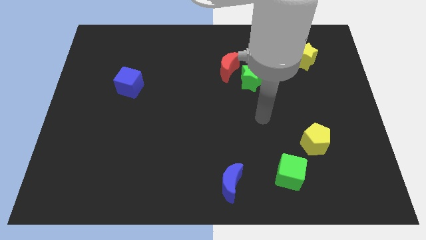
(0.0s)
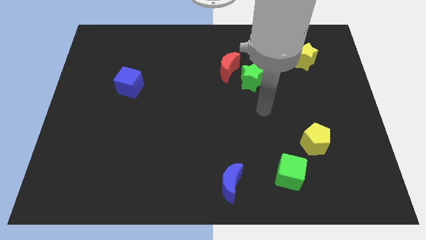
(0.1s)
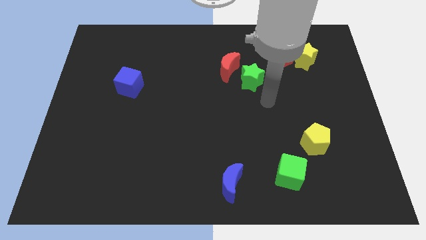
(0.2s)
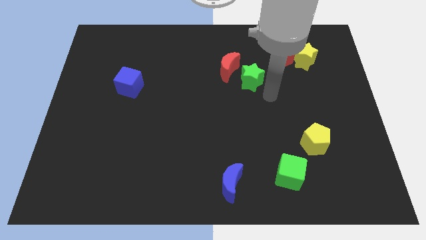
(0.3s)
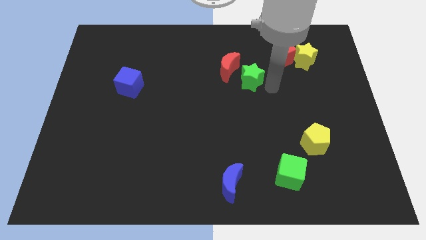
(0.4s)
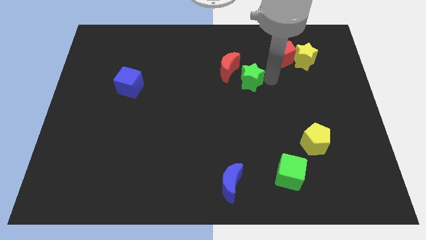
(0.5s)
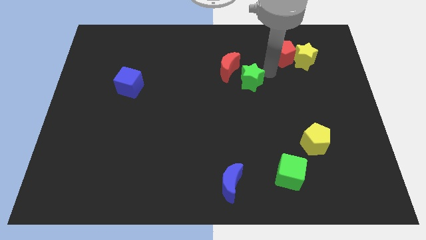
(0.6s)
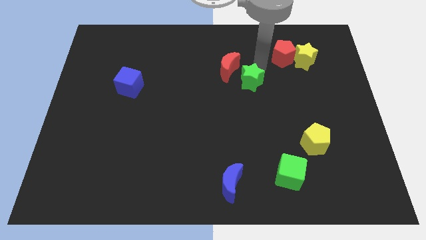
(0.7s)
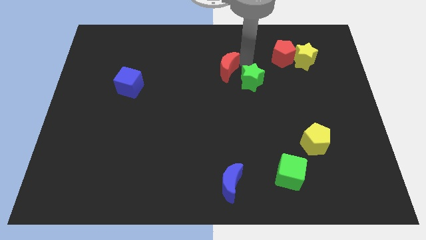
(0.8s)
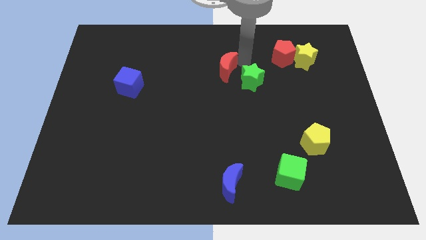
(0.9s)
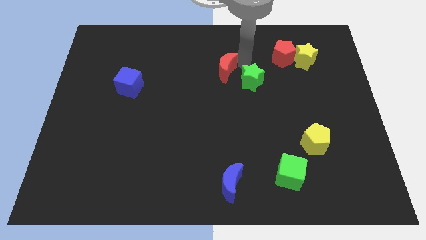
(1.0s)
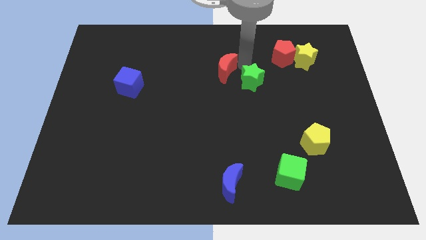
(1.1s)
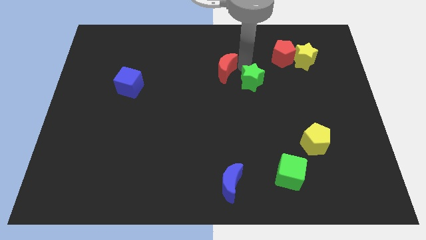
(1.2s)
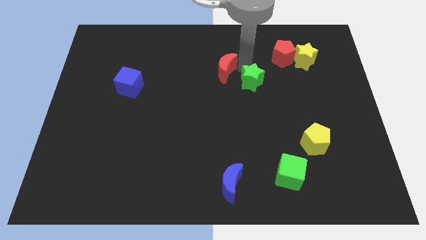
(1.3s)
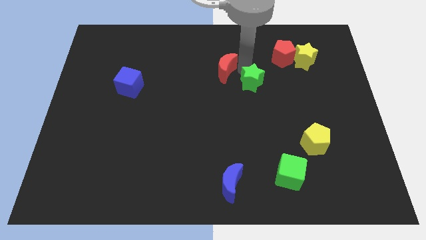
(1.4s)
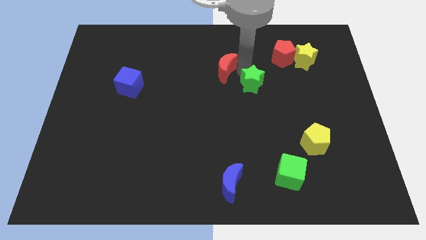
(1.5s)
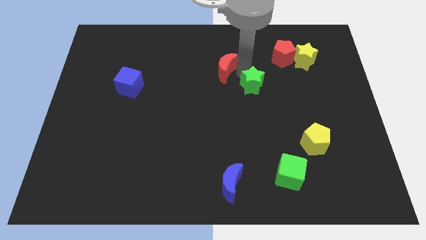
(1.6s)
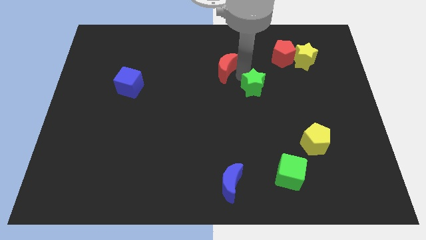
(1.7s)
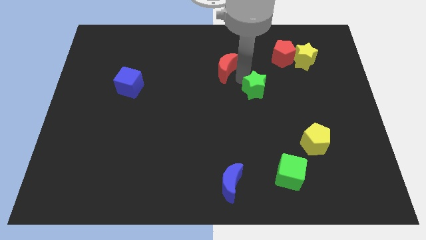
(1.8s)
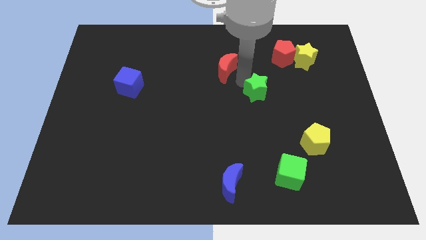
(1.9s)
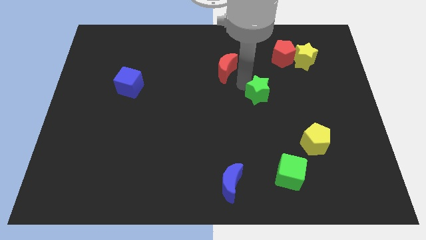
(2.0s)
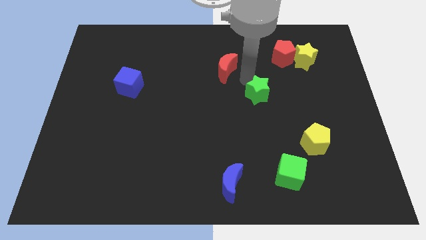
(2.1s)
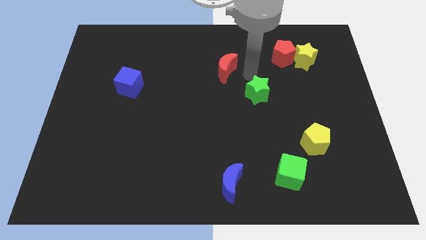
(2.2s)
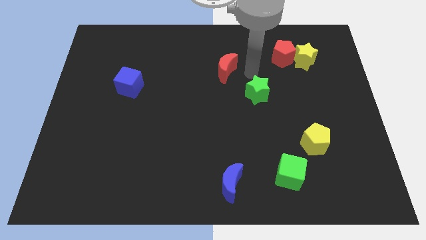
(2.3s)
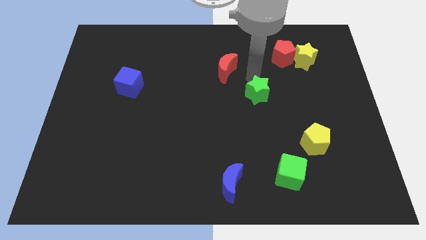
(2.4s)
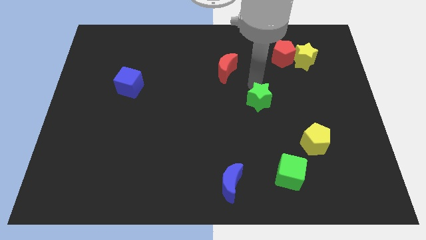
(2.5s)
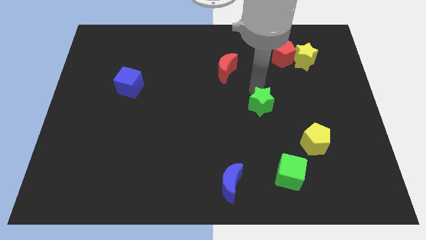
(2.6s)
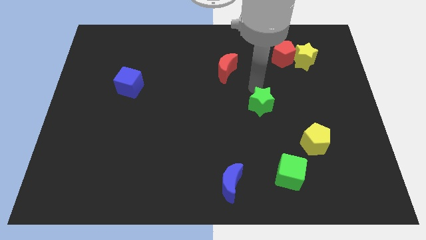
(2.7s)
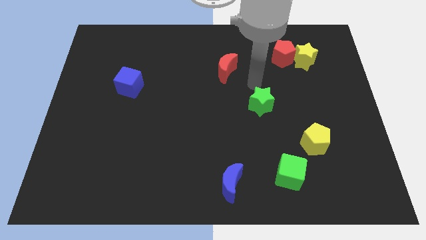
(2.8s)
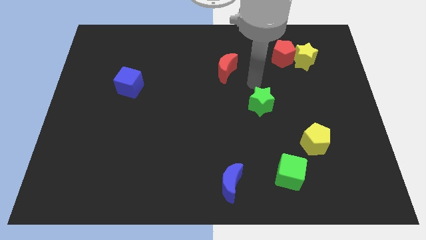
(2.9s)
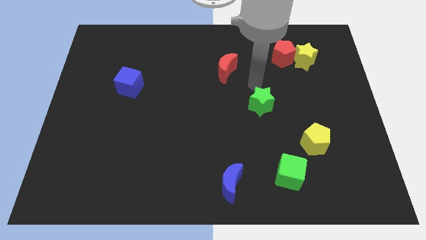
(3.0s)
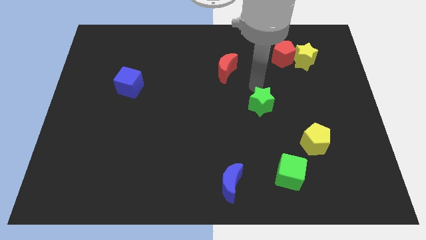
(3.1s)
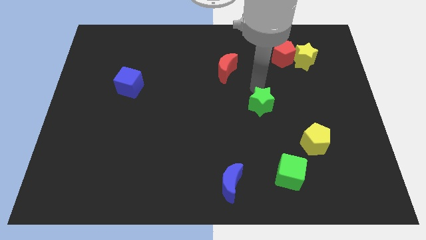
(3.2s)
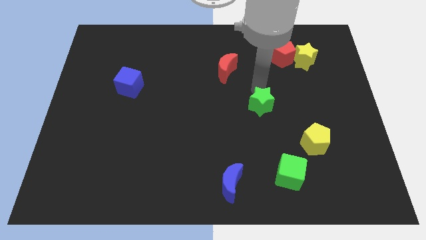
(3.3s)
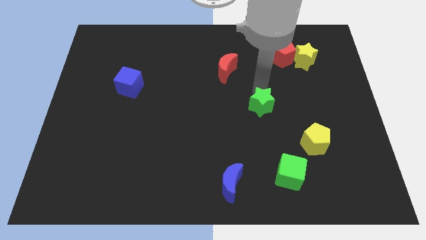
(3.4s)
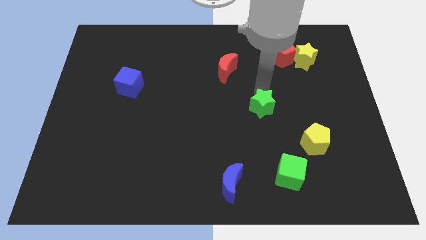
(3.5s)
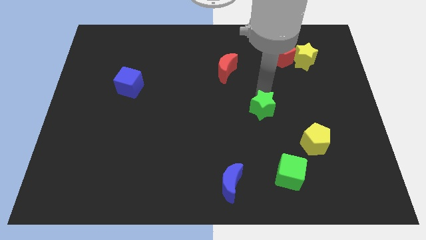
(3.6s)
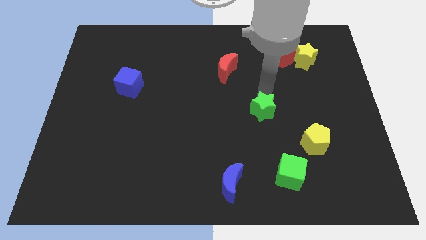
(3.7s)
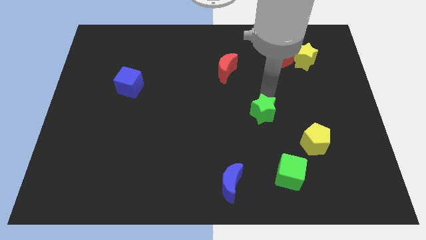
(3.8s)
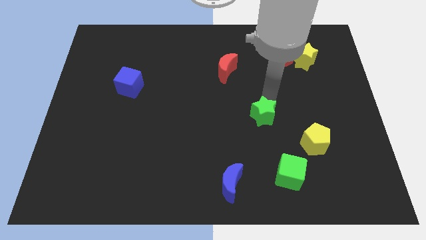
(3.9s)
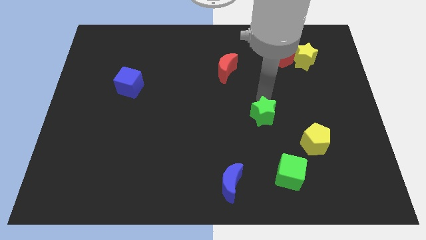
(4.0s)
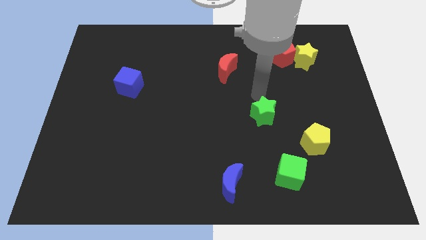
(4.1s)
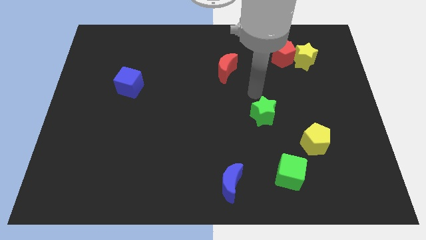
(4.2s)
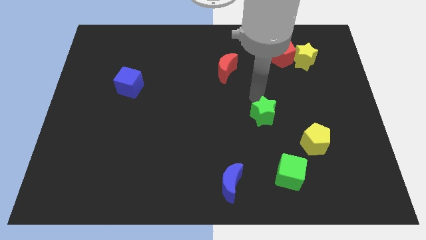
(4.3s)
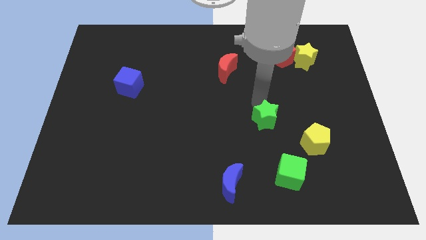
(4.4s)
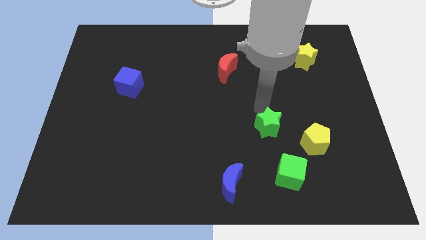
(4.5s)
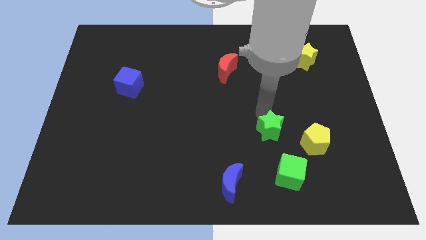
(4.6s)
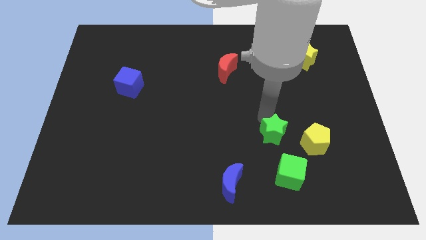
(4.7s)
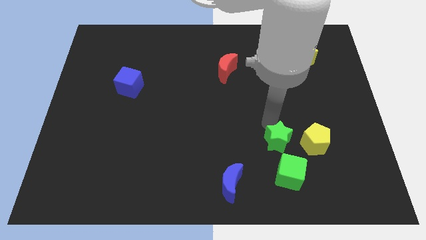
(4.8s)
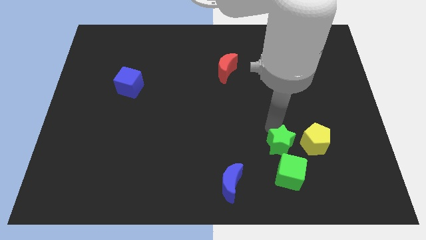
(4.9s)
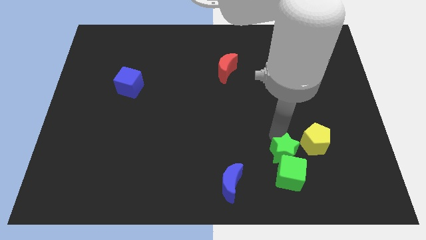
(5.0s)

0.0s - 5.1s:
move the green star towards the green cube

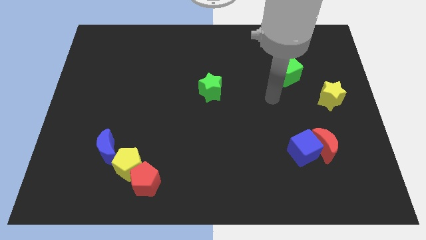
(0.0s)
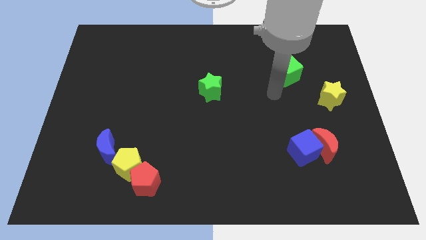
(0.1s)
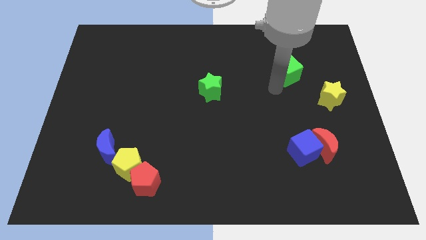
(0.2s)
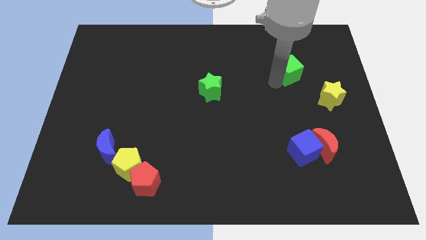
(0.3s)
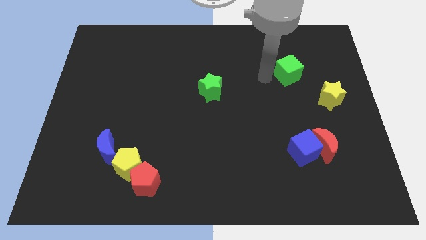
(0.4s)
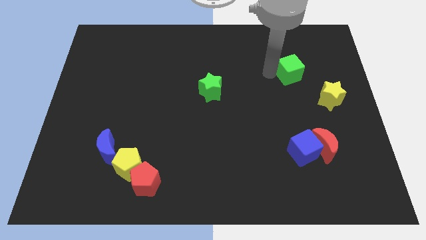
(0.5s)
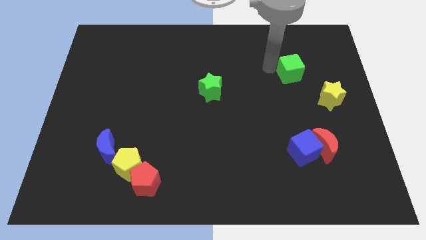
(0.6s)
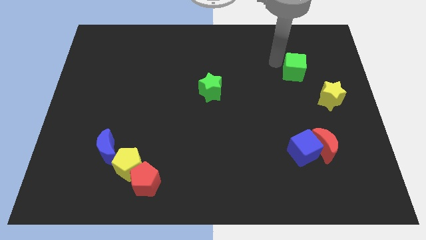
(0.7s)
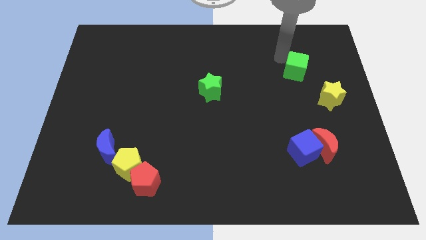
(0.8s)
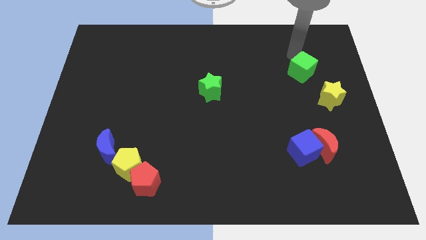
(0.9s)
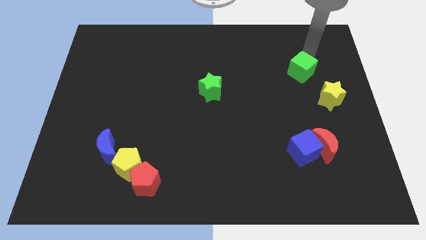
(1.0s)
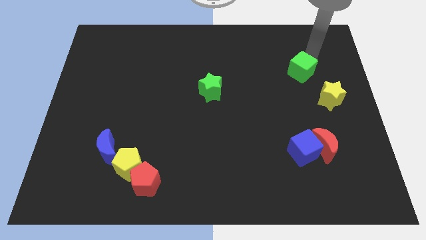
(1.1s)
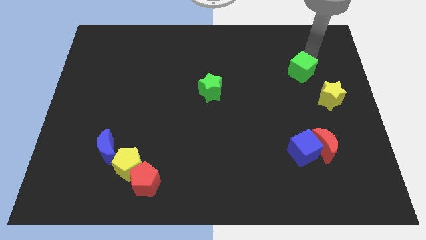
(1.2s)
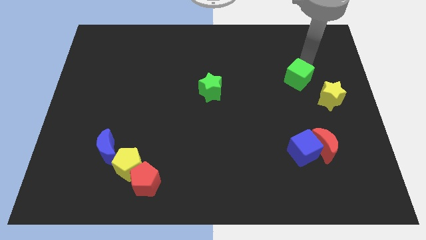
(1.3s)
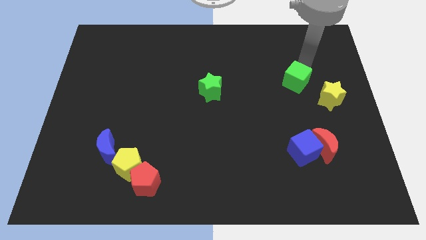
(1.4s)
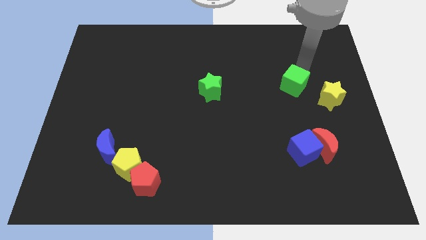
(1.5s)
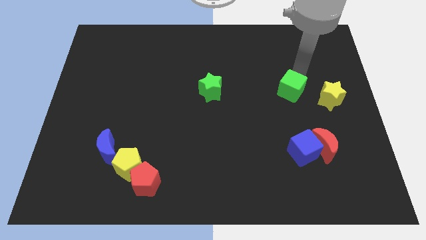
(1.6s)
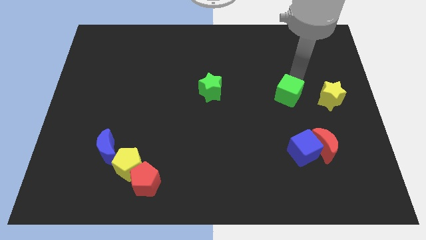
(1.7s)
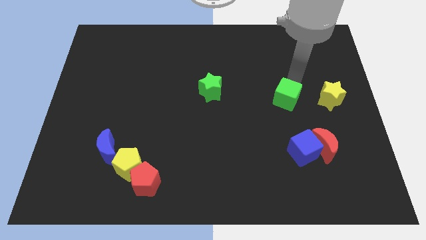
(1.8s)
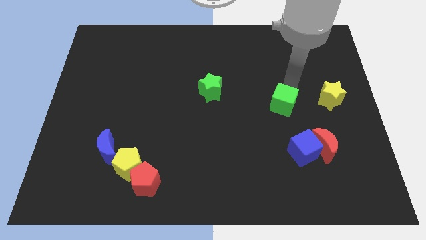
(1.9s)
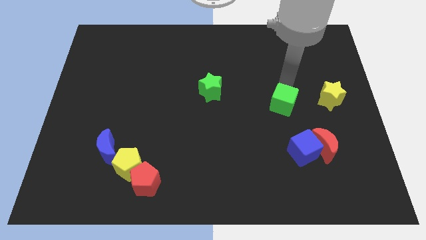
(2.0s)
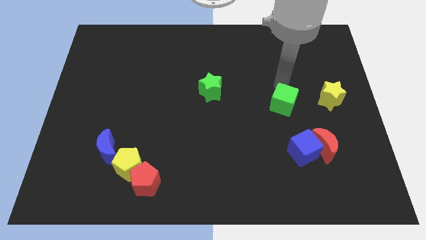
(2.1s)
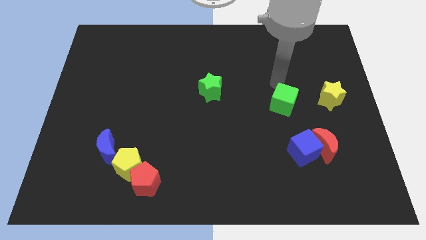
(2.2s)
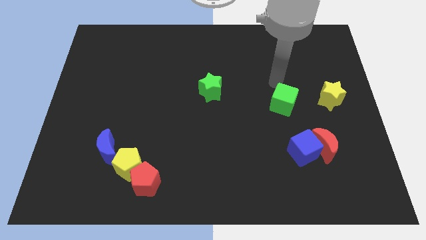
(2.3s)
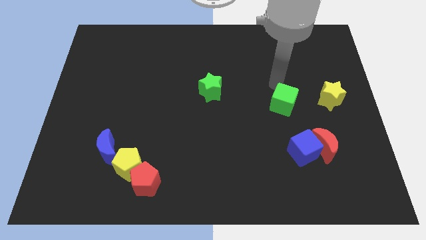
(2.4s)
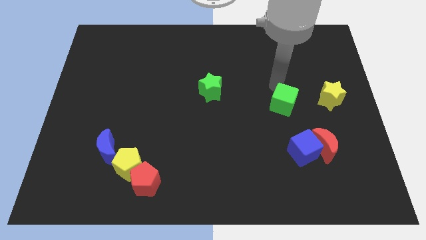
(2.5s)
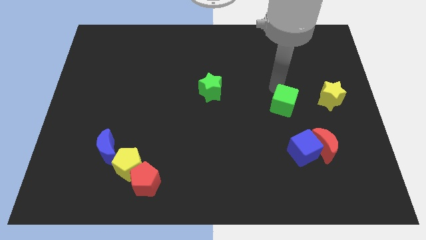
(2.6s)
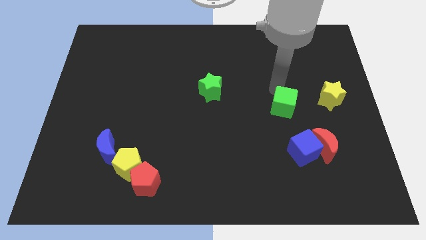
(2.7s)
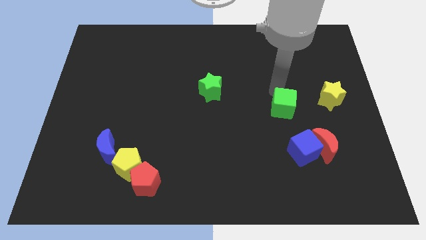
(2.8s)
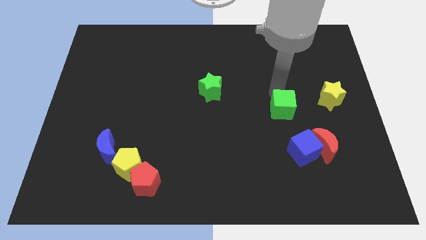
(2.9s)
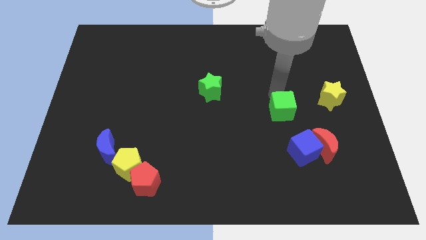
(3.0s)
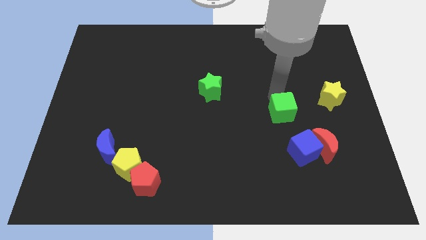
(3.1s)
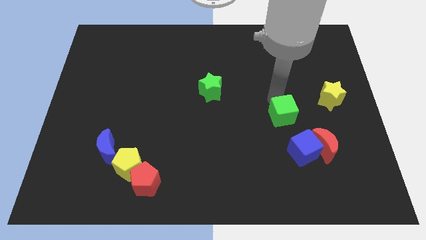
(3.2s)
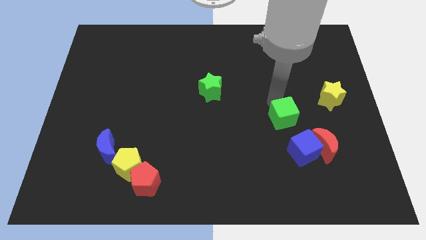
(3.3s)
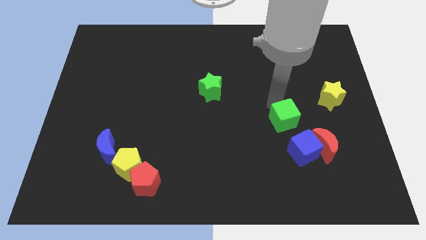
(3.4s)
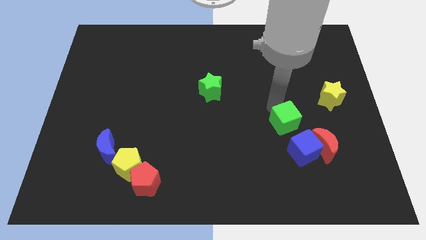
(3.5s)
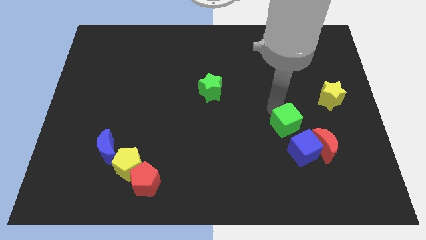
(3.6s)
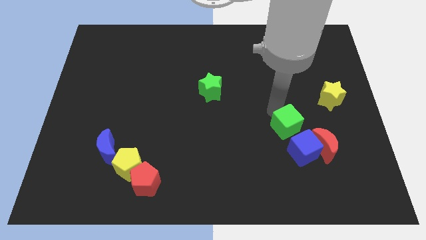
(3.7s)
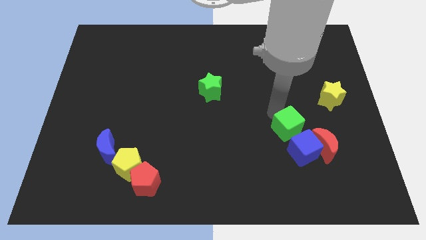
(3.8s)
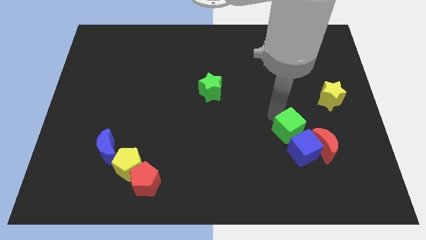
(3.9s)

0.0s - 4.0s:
put the green cube towards the blue cube
